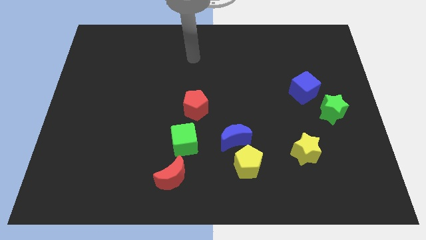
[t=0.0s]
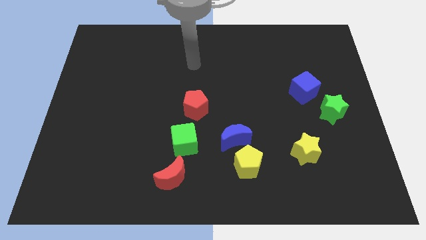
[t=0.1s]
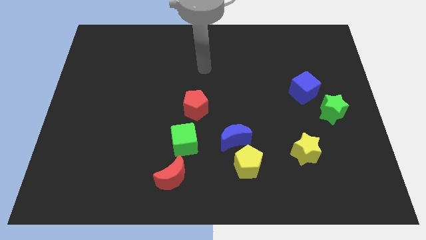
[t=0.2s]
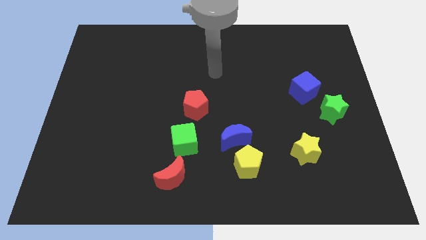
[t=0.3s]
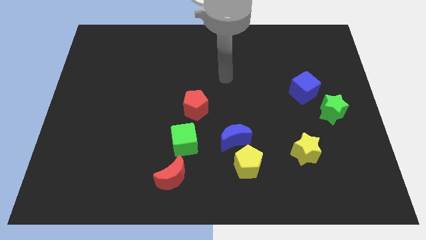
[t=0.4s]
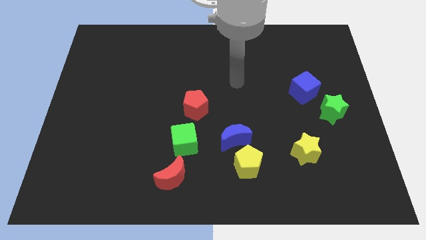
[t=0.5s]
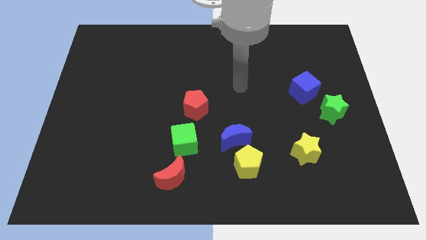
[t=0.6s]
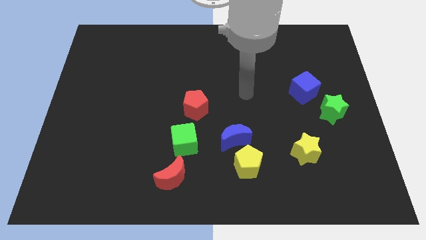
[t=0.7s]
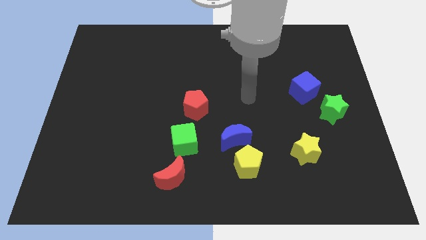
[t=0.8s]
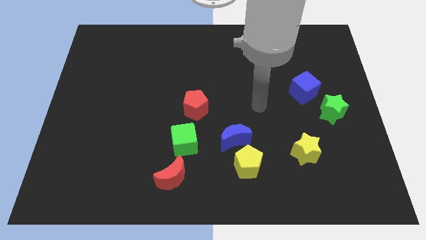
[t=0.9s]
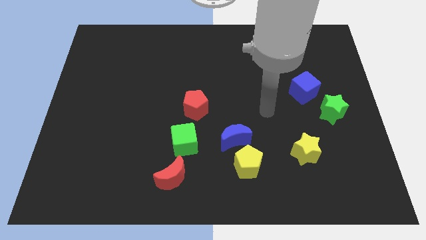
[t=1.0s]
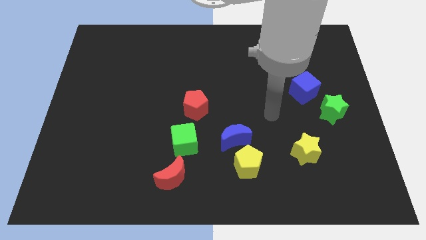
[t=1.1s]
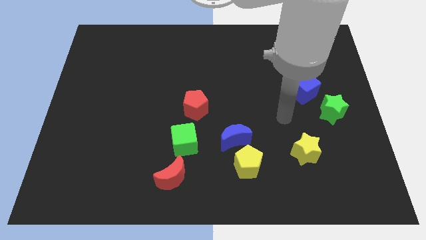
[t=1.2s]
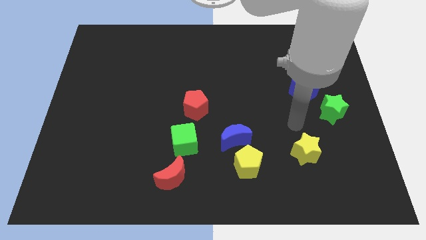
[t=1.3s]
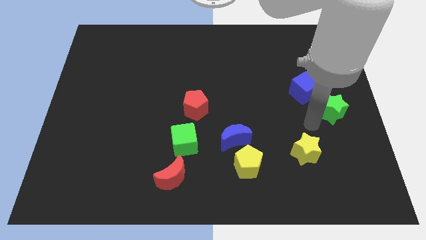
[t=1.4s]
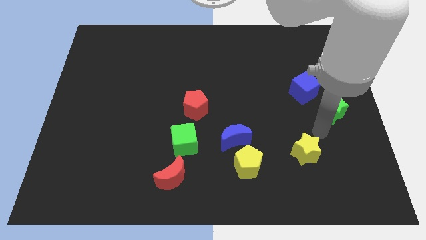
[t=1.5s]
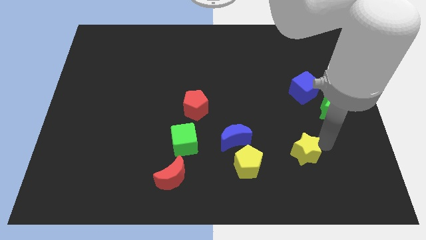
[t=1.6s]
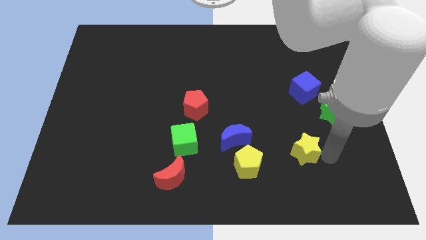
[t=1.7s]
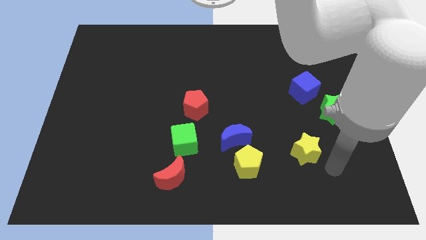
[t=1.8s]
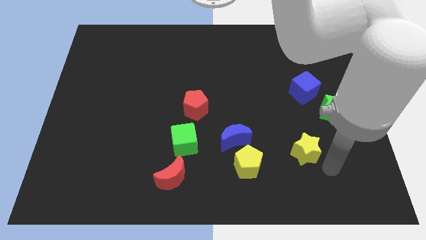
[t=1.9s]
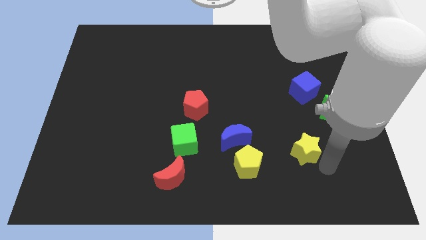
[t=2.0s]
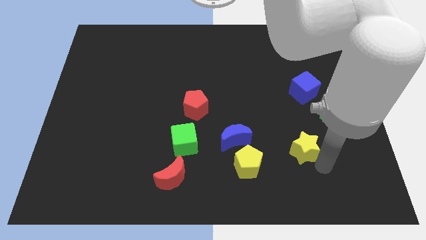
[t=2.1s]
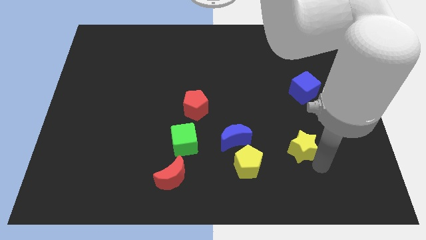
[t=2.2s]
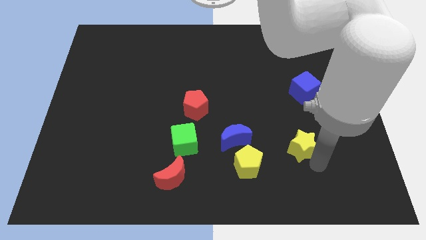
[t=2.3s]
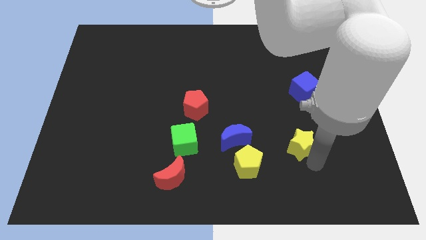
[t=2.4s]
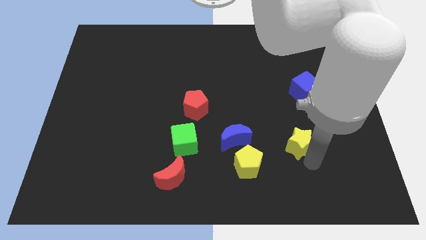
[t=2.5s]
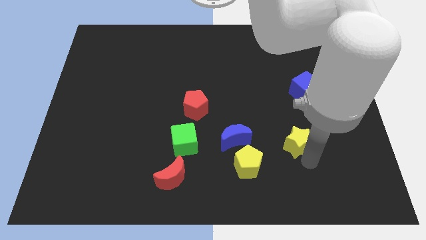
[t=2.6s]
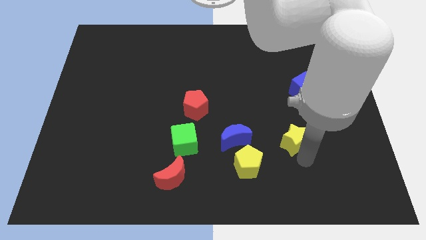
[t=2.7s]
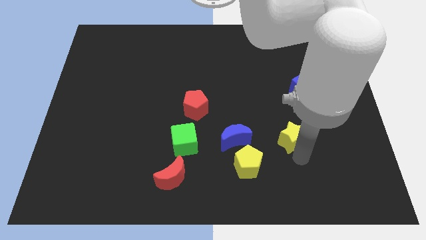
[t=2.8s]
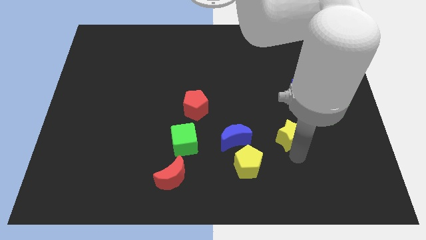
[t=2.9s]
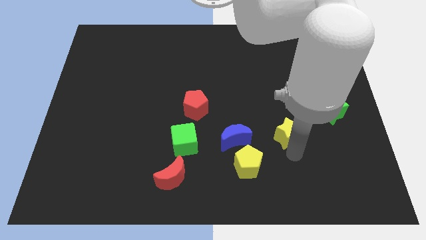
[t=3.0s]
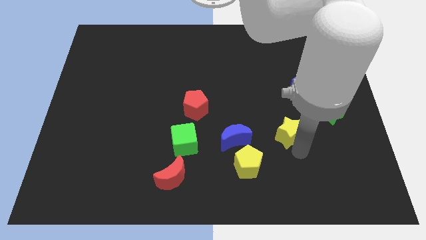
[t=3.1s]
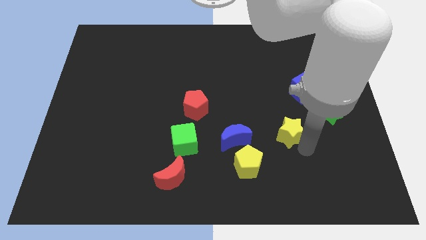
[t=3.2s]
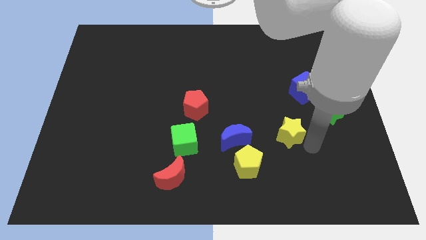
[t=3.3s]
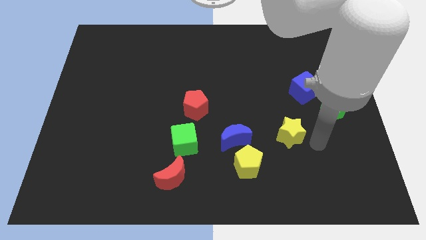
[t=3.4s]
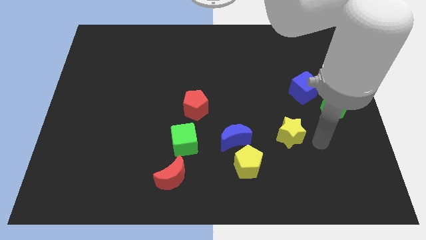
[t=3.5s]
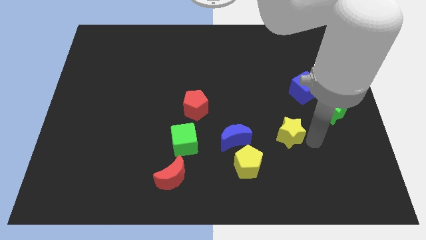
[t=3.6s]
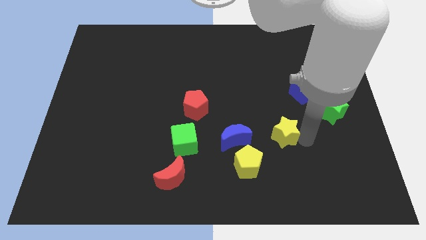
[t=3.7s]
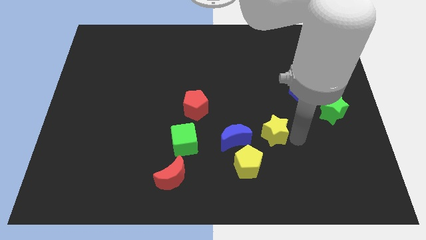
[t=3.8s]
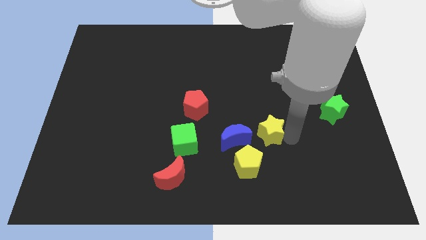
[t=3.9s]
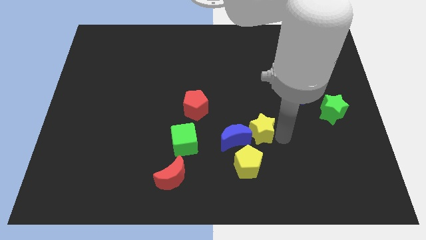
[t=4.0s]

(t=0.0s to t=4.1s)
slightly slide the yellow star left

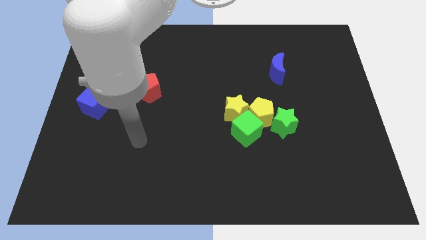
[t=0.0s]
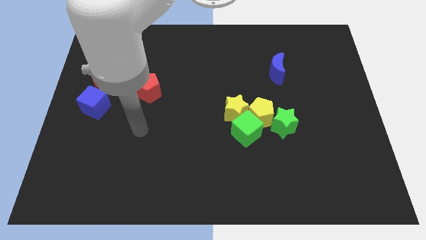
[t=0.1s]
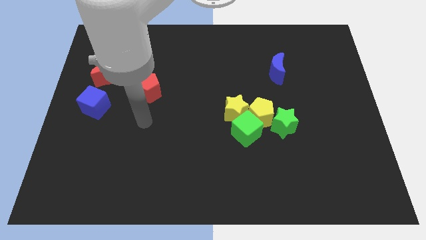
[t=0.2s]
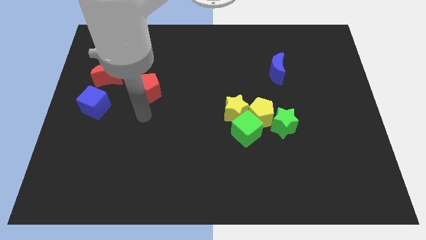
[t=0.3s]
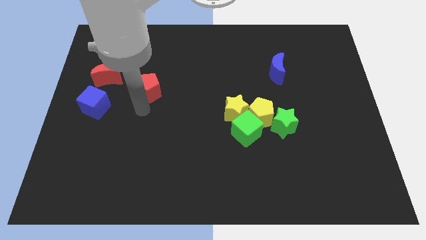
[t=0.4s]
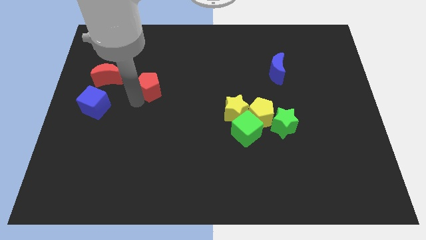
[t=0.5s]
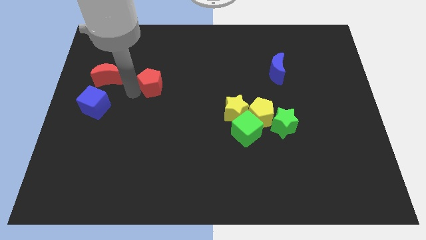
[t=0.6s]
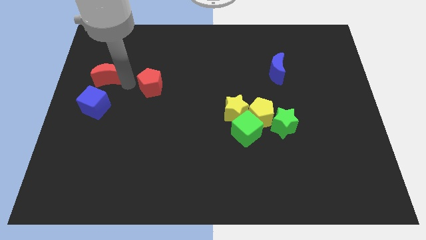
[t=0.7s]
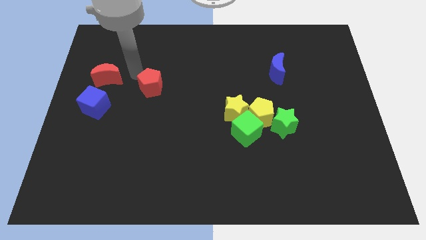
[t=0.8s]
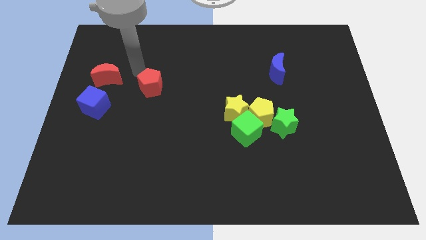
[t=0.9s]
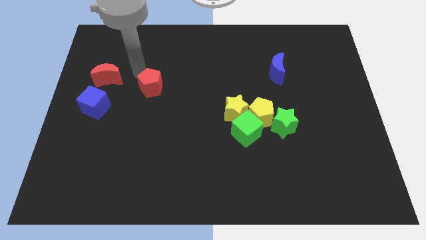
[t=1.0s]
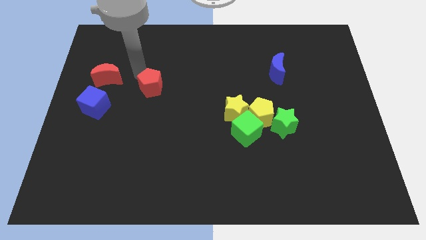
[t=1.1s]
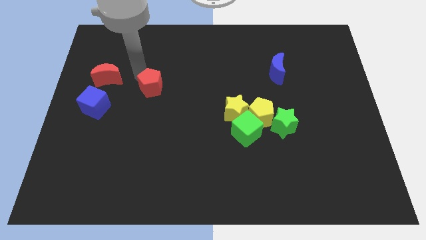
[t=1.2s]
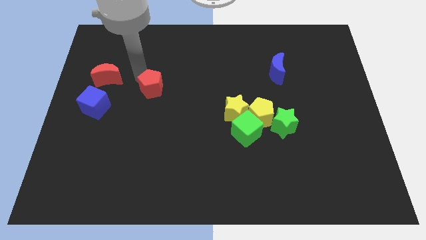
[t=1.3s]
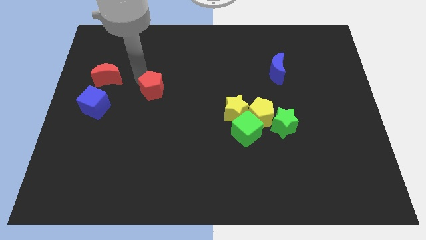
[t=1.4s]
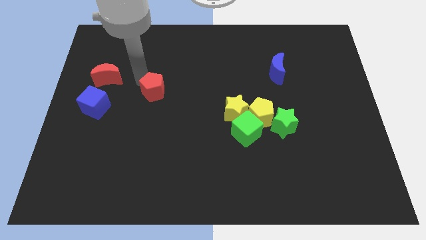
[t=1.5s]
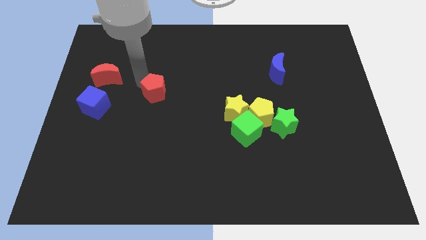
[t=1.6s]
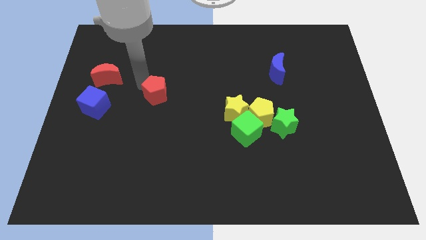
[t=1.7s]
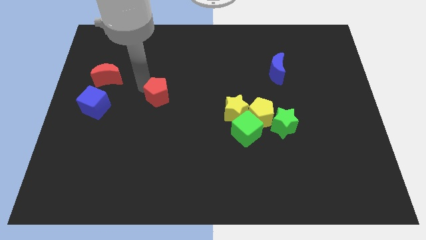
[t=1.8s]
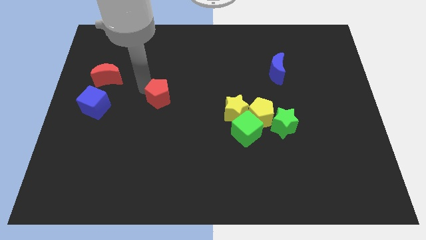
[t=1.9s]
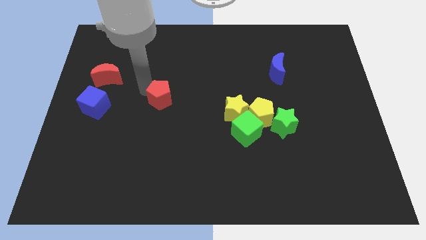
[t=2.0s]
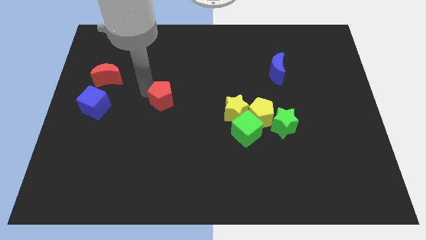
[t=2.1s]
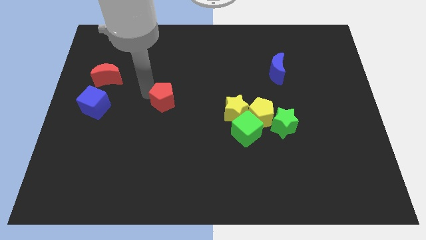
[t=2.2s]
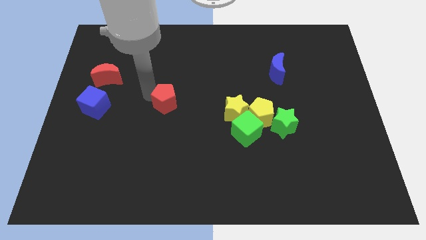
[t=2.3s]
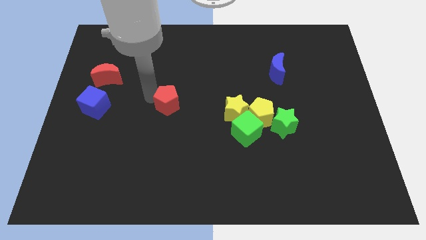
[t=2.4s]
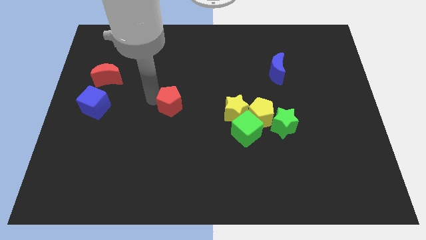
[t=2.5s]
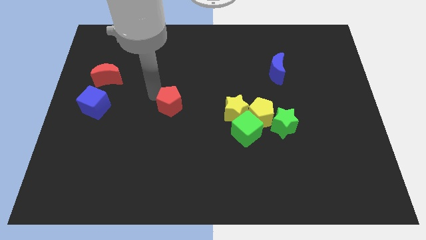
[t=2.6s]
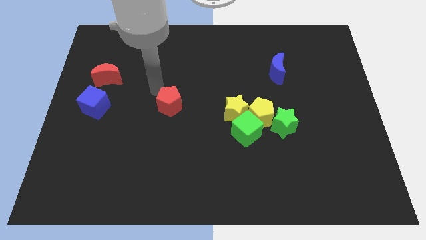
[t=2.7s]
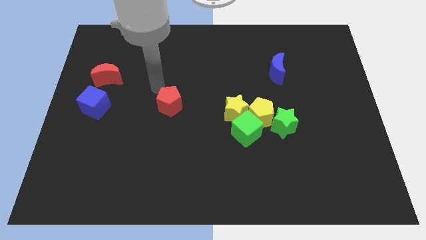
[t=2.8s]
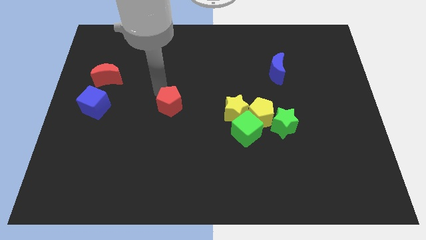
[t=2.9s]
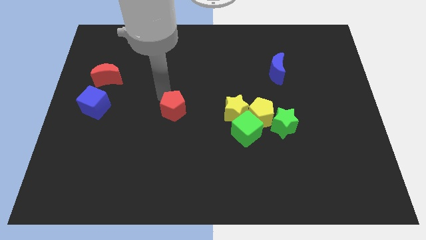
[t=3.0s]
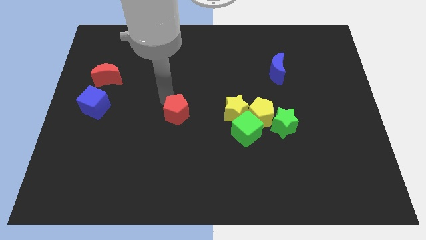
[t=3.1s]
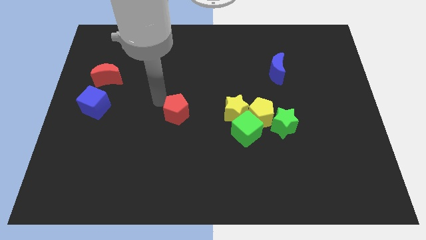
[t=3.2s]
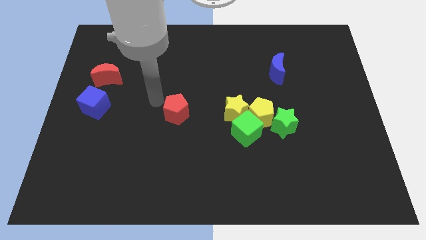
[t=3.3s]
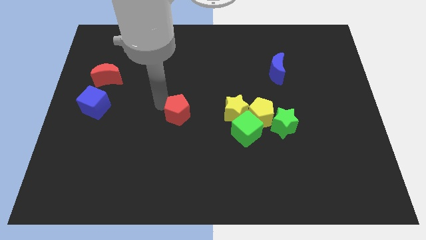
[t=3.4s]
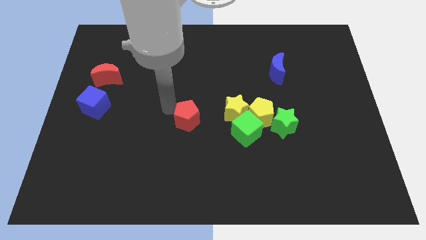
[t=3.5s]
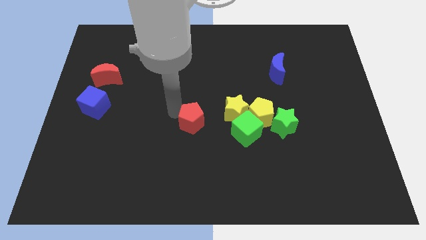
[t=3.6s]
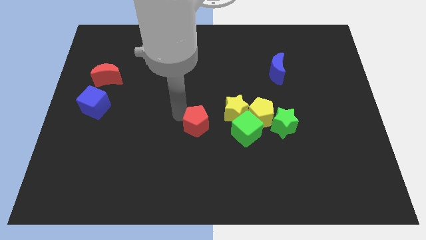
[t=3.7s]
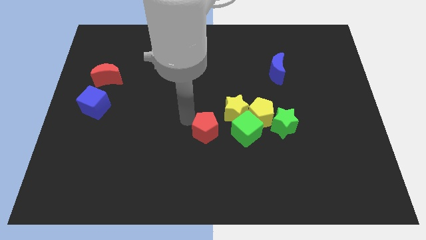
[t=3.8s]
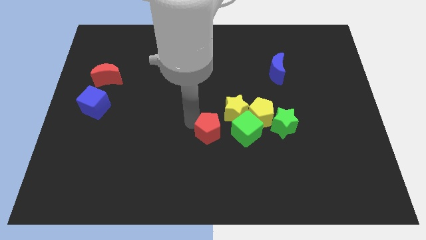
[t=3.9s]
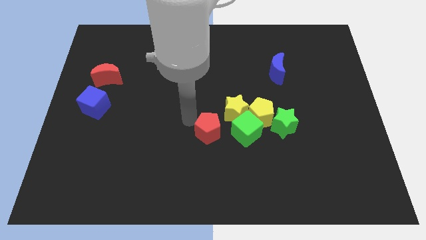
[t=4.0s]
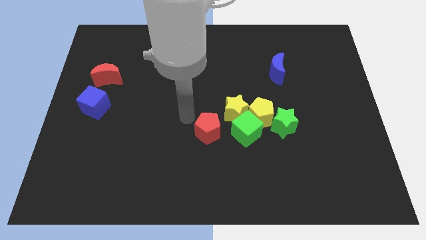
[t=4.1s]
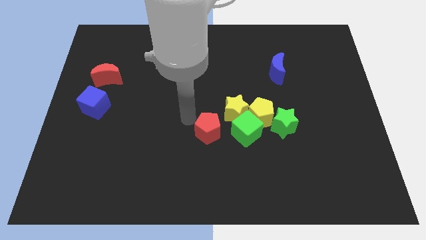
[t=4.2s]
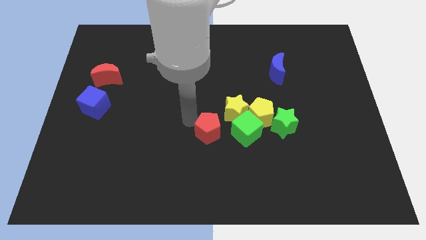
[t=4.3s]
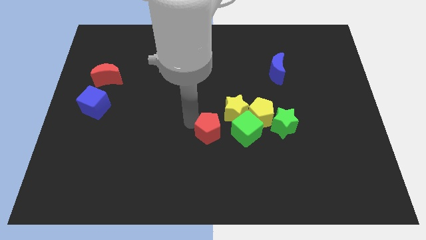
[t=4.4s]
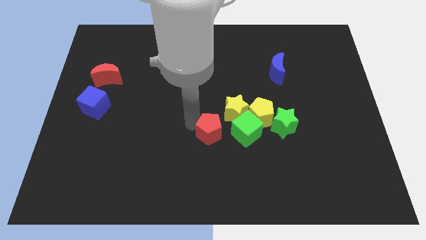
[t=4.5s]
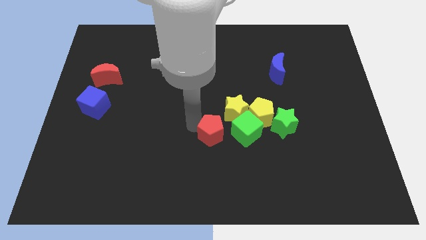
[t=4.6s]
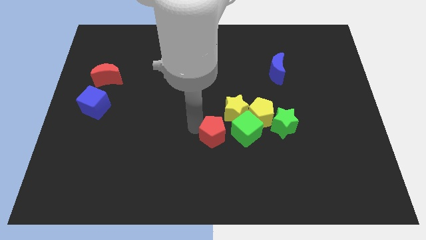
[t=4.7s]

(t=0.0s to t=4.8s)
slide the red pentagon downwards and then to the right
